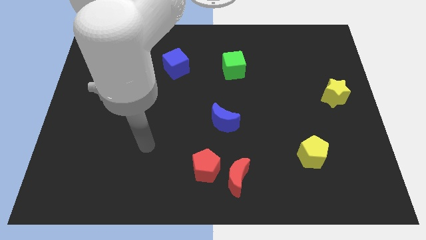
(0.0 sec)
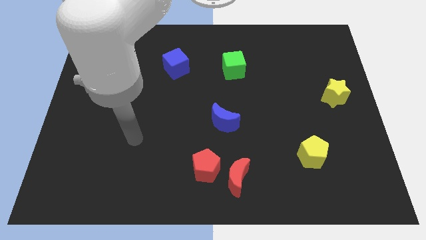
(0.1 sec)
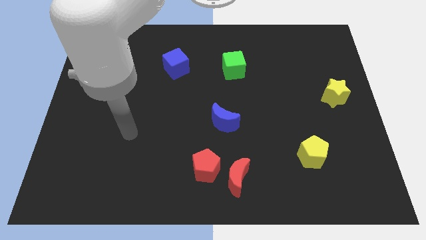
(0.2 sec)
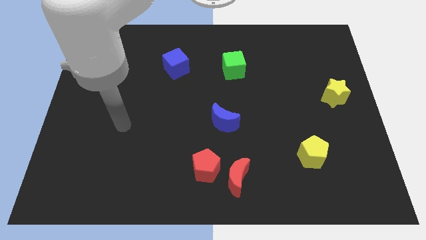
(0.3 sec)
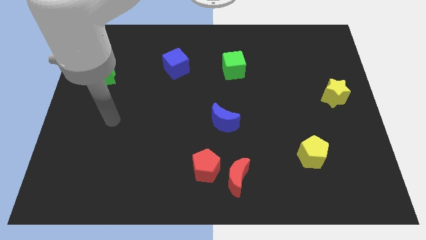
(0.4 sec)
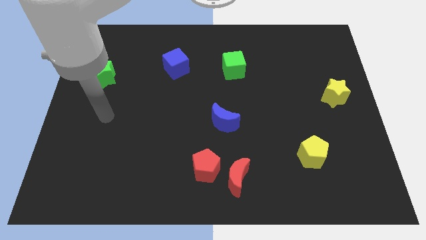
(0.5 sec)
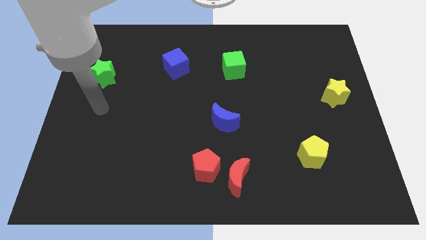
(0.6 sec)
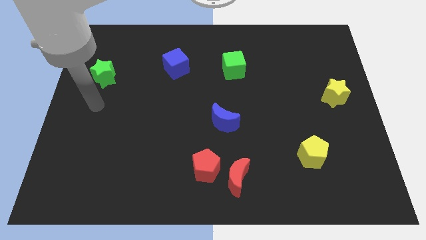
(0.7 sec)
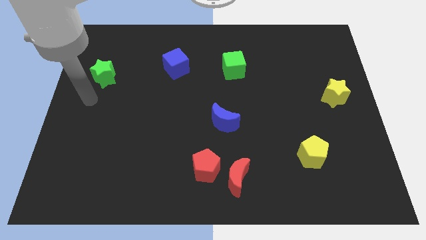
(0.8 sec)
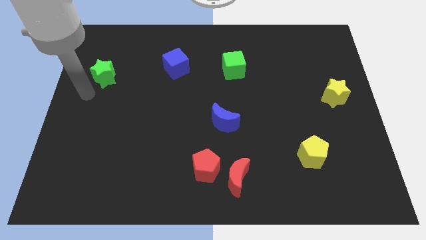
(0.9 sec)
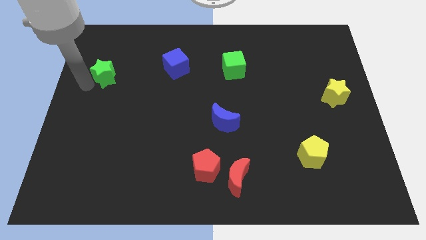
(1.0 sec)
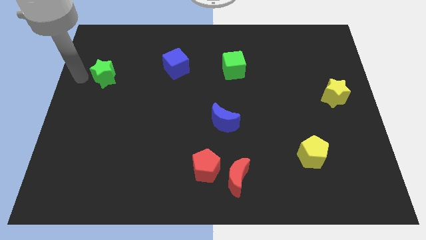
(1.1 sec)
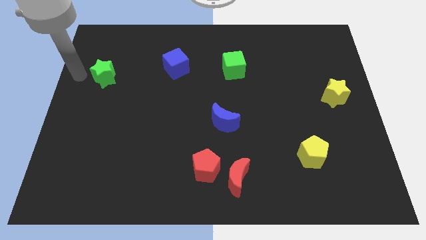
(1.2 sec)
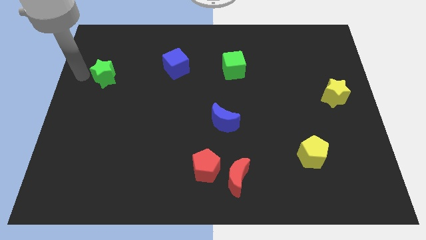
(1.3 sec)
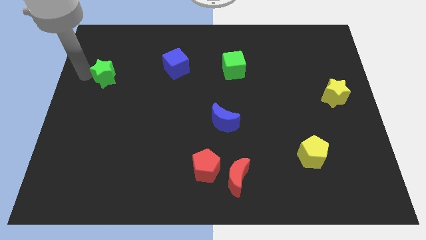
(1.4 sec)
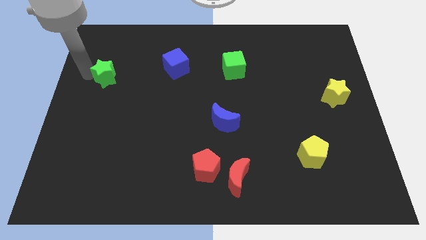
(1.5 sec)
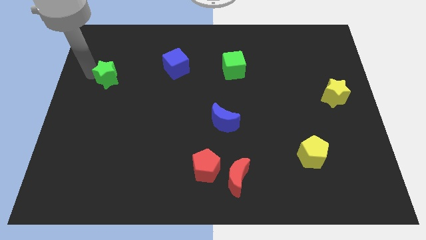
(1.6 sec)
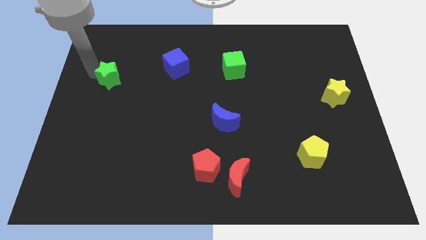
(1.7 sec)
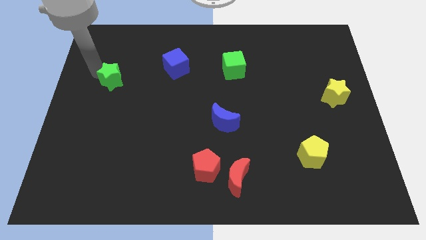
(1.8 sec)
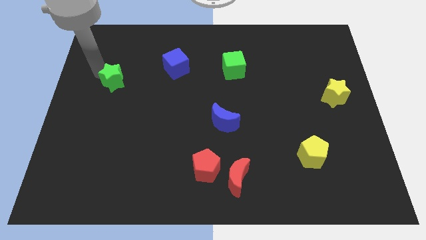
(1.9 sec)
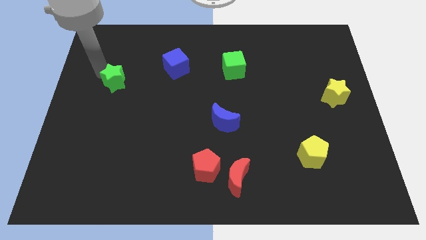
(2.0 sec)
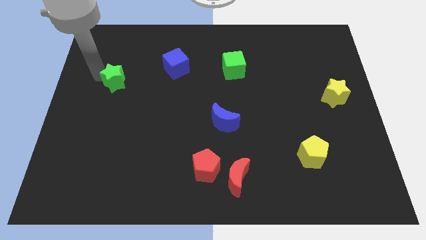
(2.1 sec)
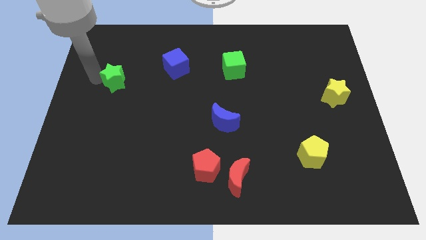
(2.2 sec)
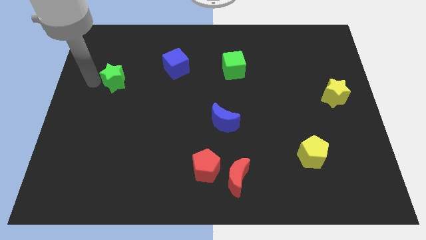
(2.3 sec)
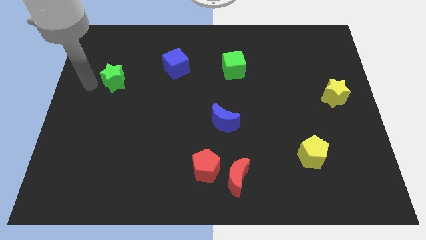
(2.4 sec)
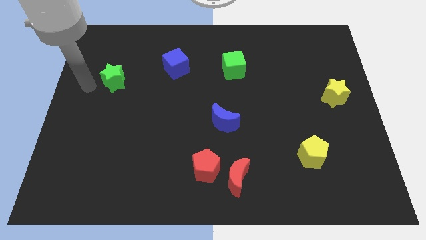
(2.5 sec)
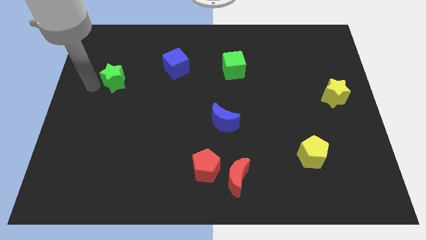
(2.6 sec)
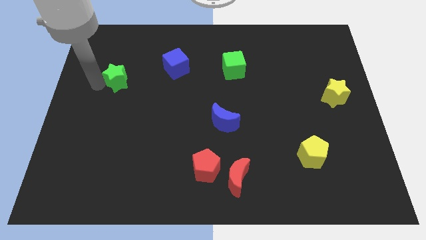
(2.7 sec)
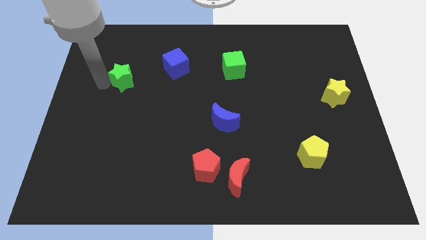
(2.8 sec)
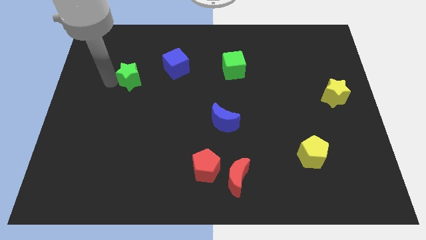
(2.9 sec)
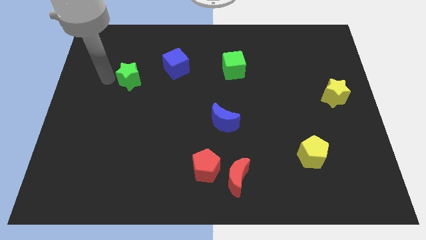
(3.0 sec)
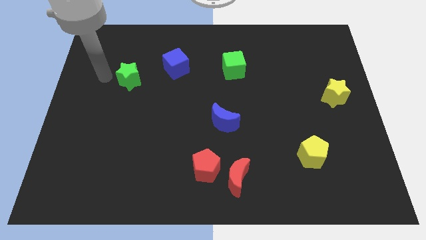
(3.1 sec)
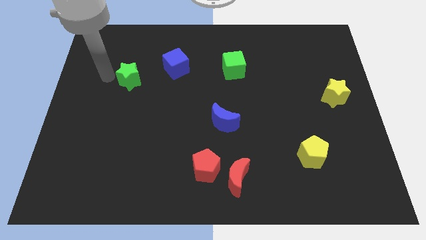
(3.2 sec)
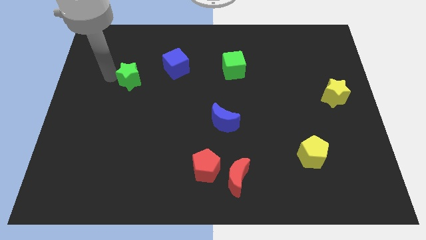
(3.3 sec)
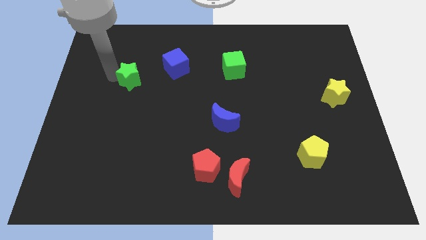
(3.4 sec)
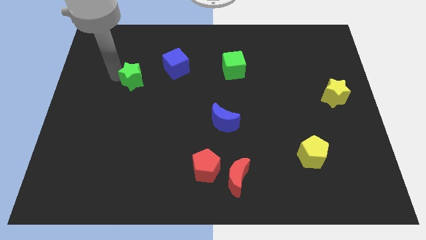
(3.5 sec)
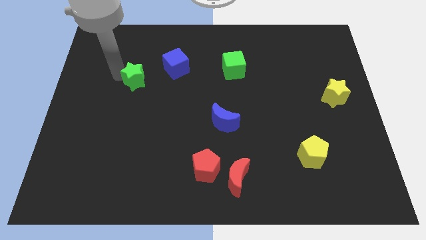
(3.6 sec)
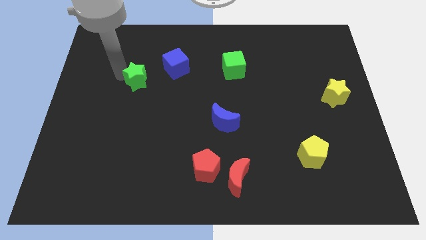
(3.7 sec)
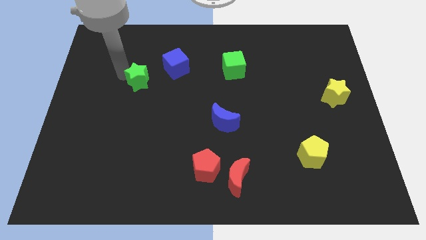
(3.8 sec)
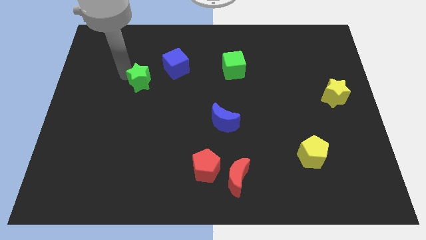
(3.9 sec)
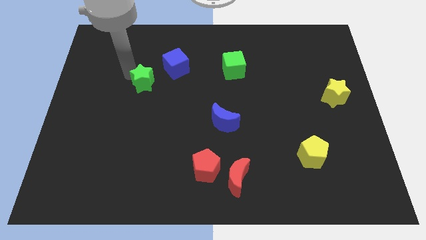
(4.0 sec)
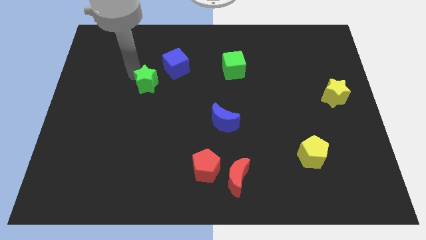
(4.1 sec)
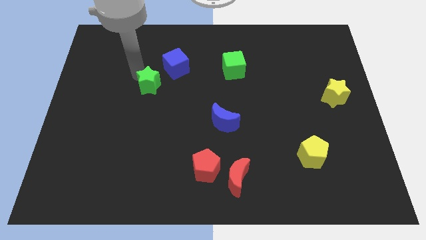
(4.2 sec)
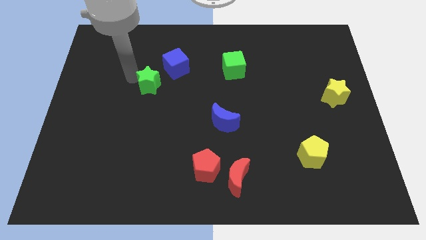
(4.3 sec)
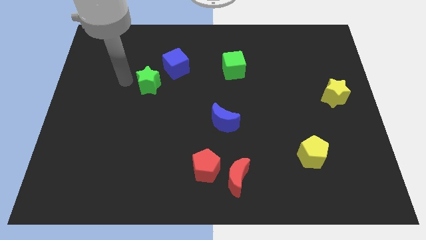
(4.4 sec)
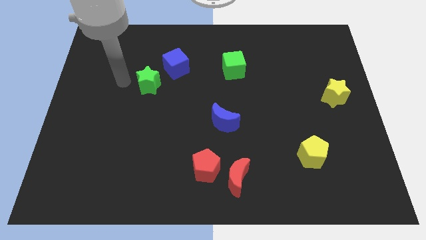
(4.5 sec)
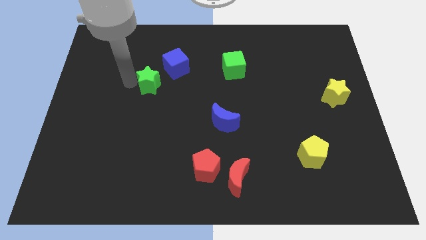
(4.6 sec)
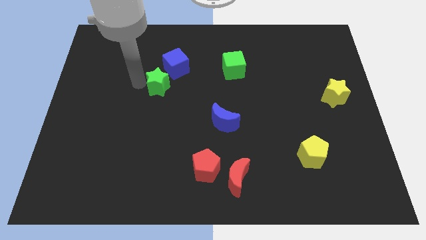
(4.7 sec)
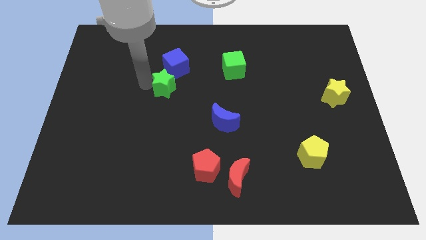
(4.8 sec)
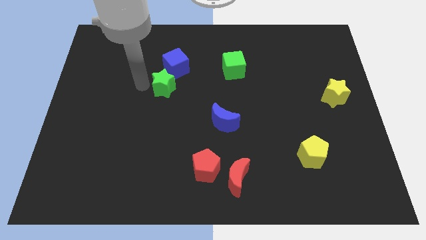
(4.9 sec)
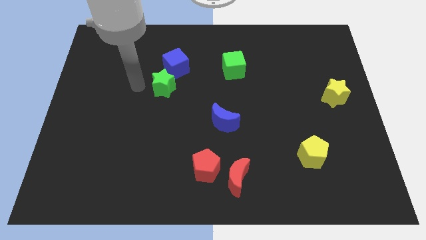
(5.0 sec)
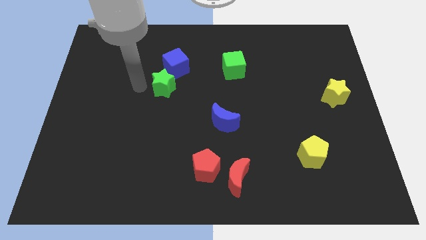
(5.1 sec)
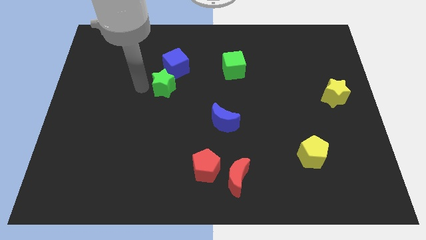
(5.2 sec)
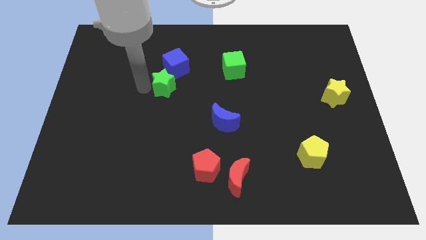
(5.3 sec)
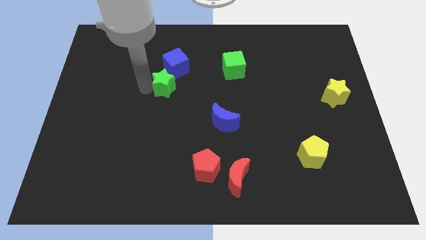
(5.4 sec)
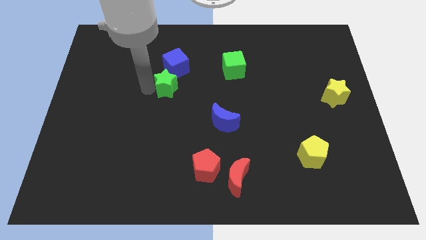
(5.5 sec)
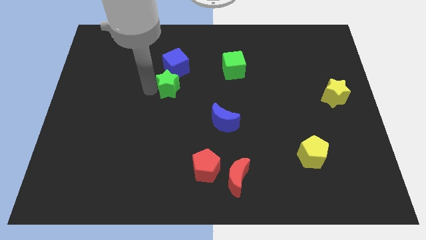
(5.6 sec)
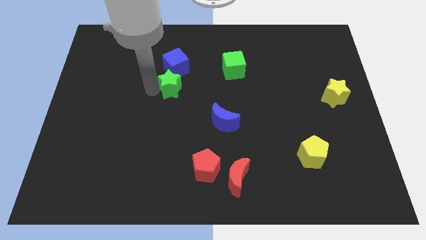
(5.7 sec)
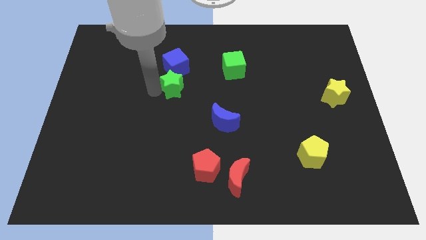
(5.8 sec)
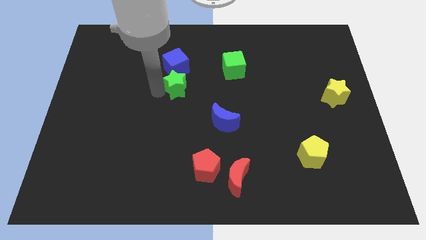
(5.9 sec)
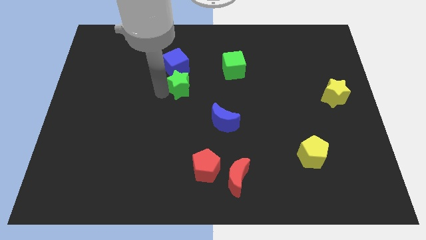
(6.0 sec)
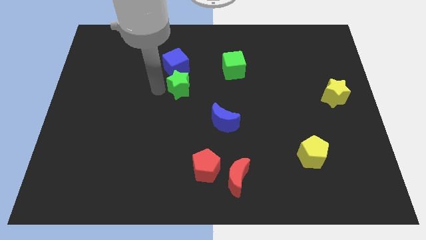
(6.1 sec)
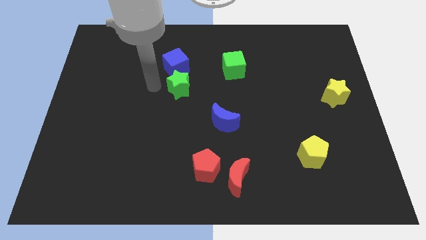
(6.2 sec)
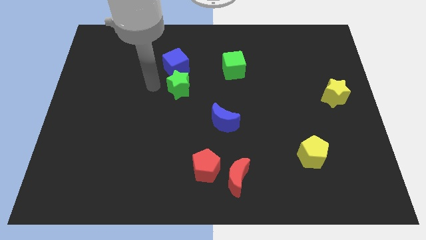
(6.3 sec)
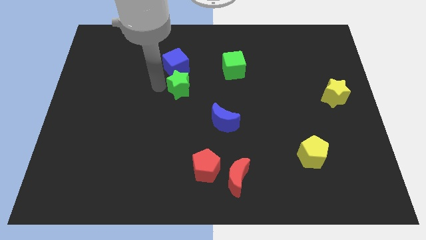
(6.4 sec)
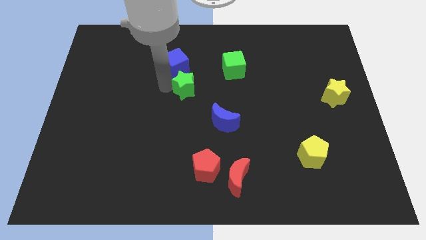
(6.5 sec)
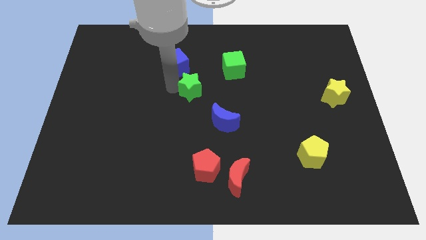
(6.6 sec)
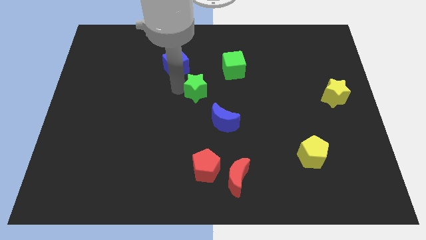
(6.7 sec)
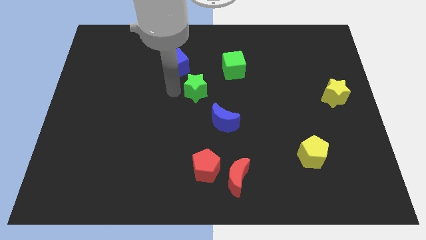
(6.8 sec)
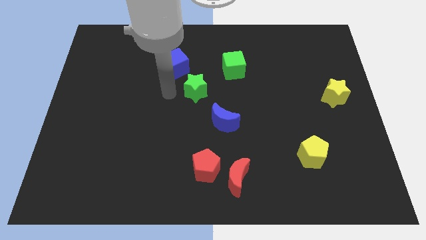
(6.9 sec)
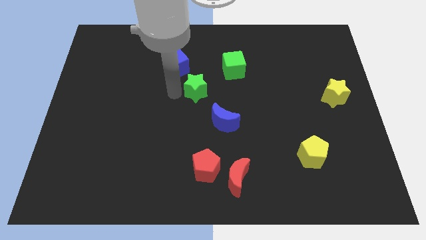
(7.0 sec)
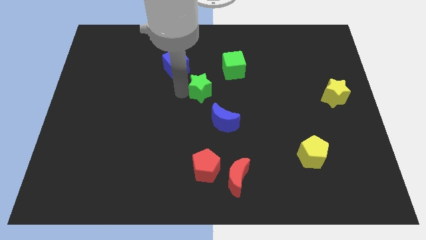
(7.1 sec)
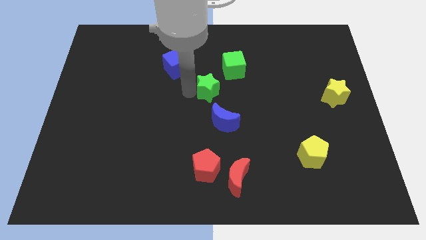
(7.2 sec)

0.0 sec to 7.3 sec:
slide the green star above the blue moon

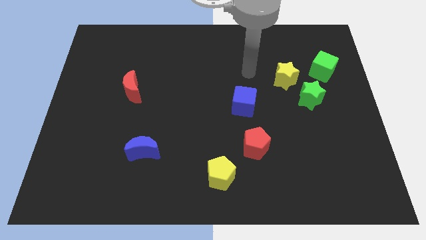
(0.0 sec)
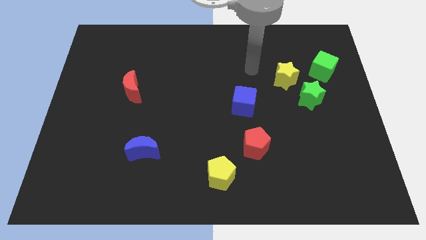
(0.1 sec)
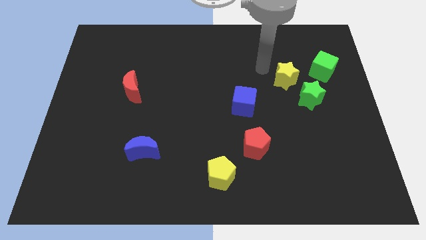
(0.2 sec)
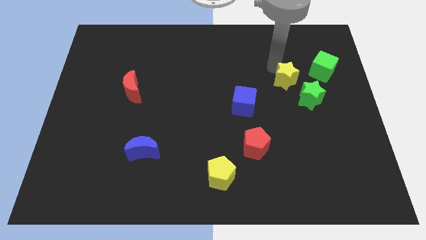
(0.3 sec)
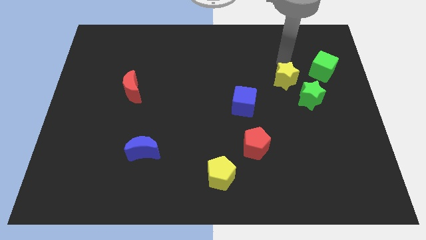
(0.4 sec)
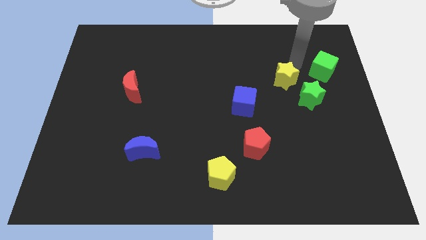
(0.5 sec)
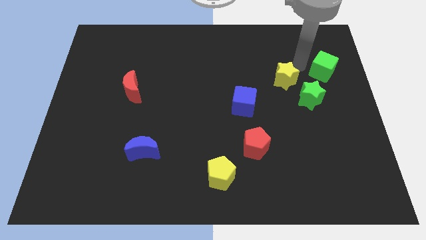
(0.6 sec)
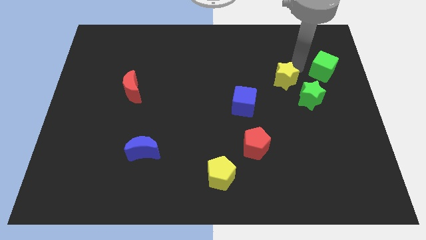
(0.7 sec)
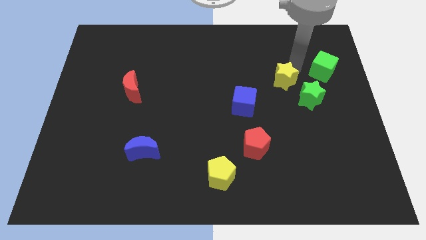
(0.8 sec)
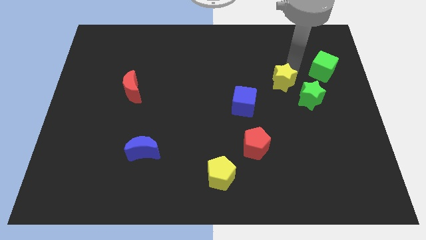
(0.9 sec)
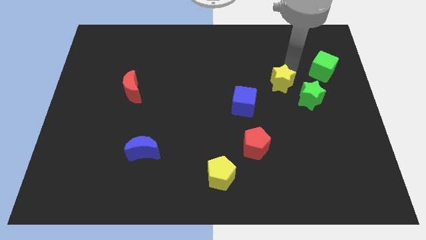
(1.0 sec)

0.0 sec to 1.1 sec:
move the yellow star to the left of the green star
